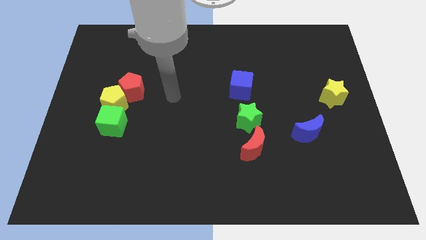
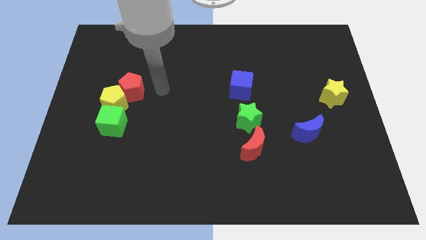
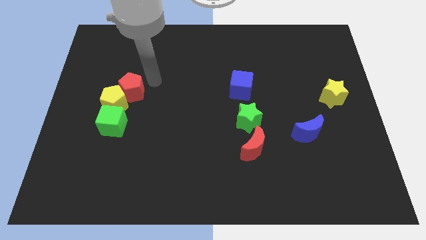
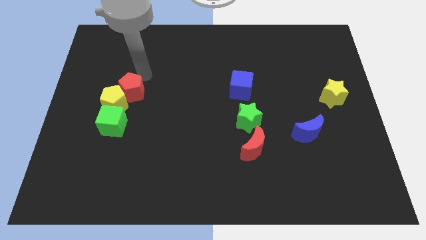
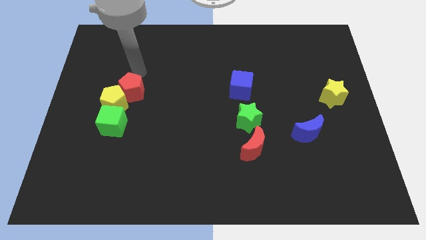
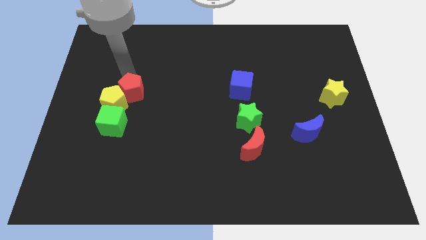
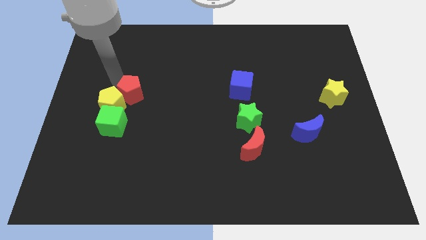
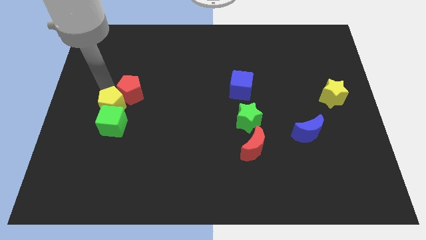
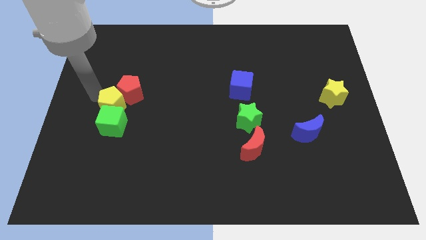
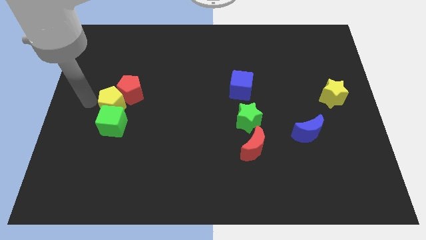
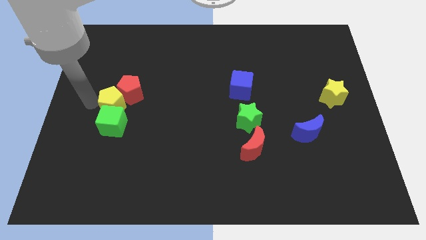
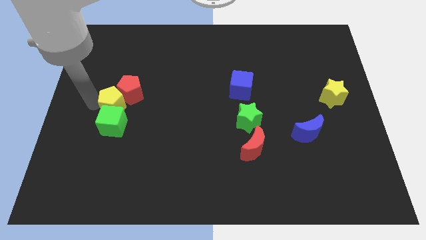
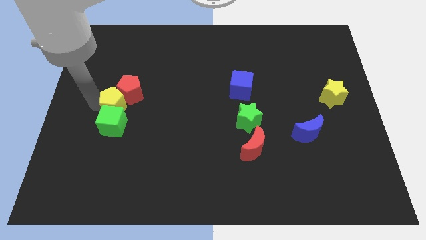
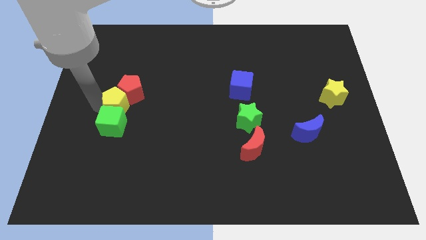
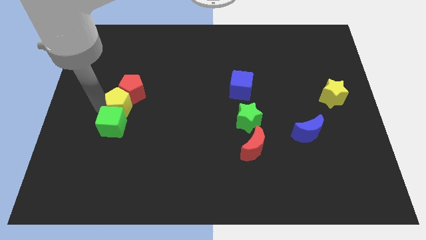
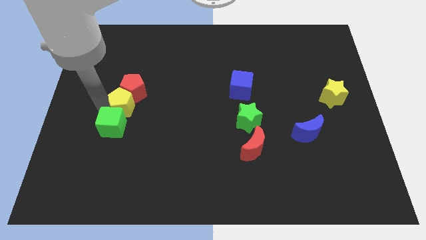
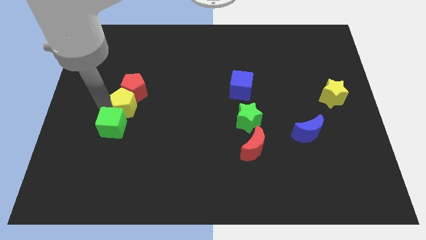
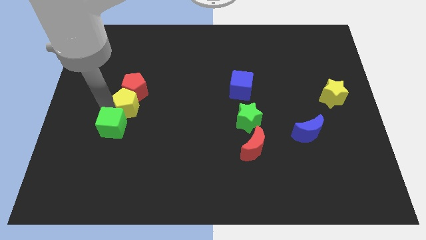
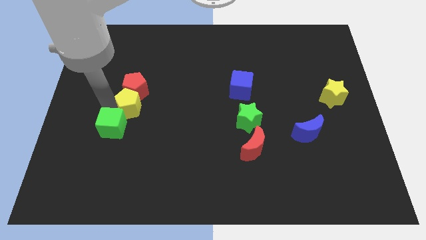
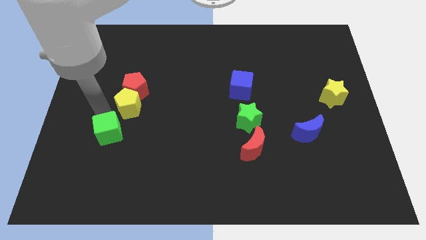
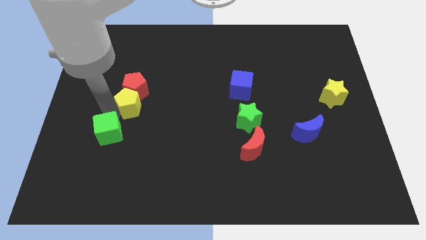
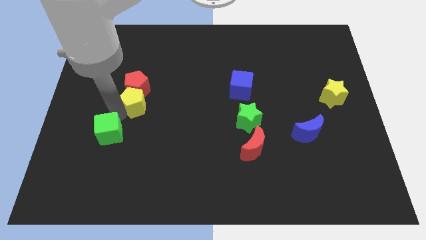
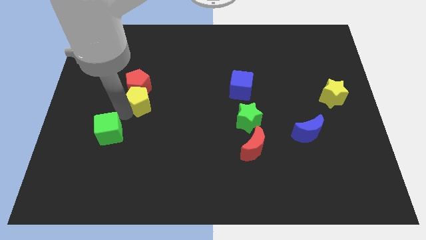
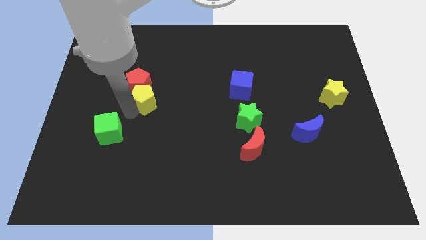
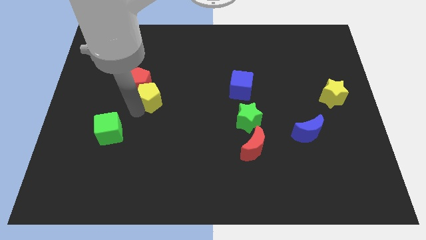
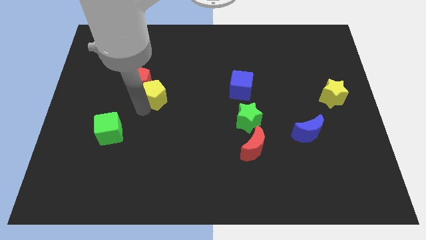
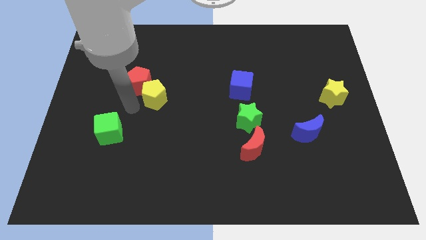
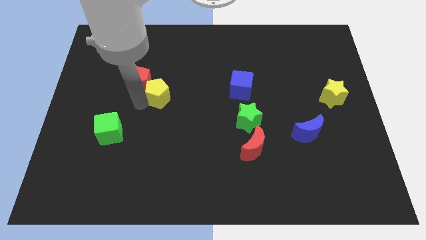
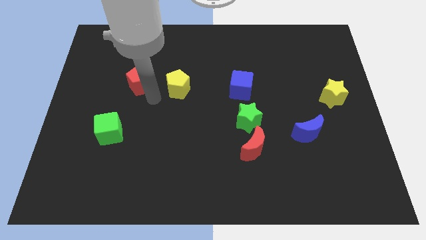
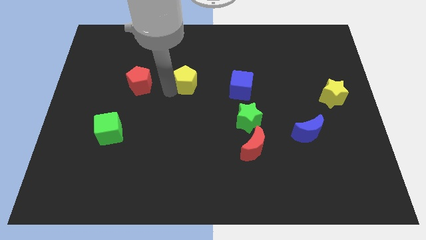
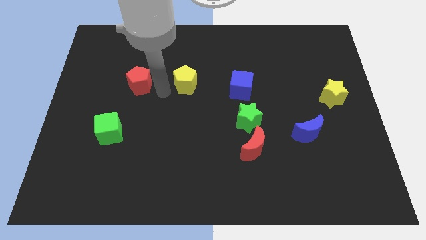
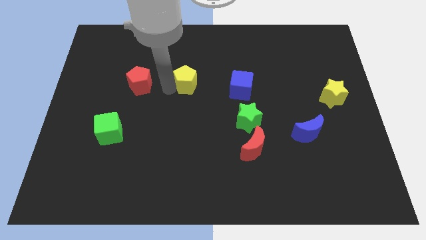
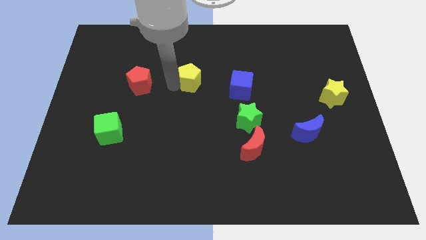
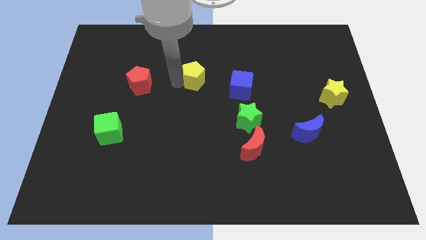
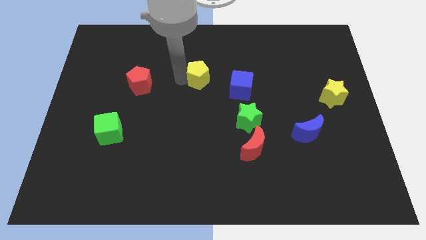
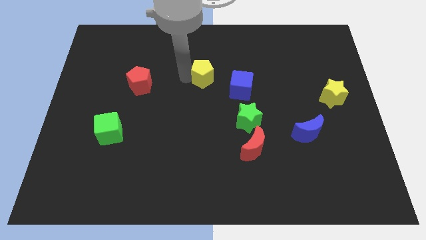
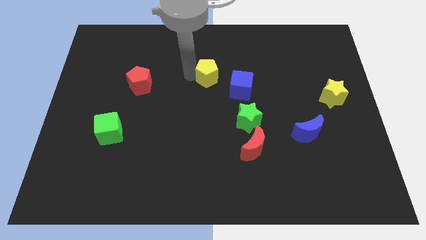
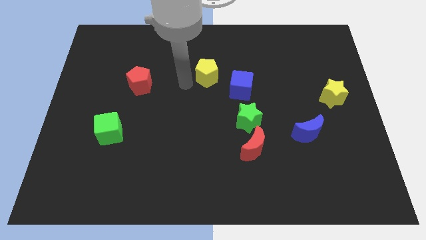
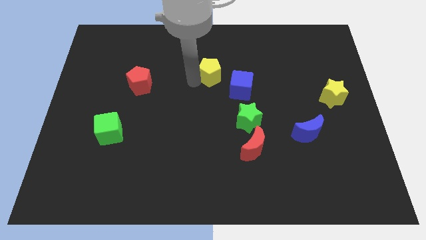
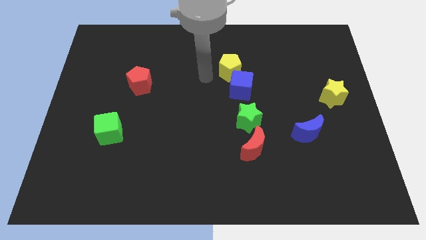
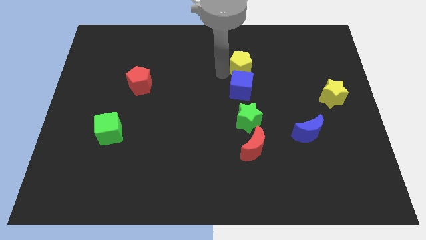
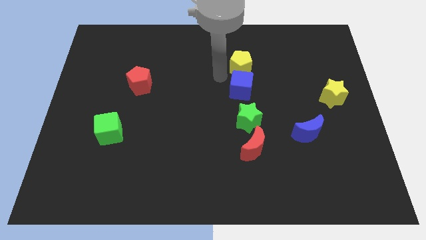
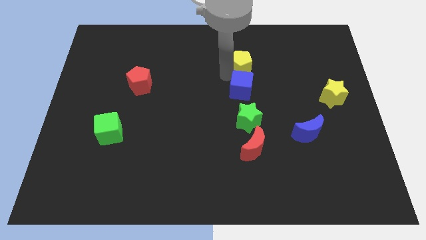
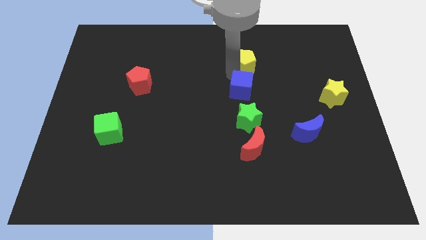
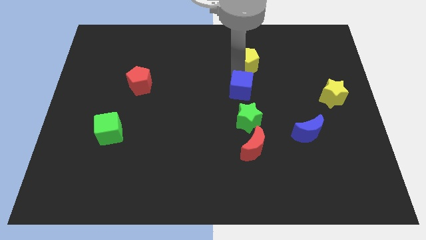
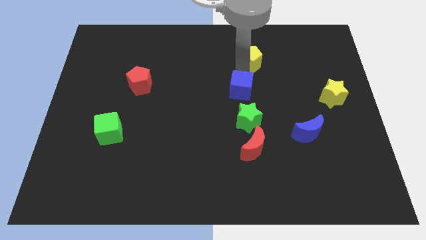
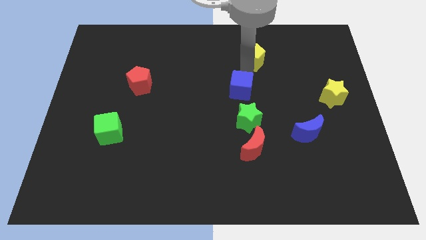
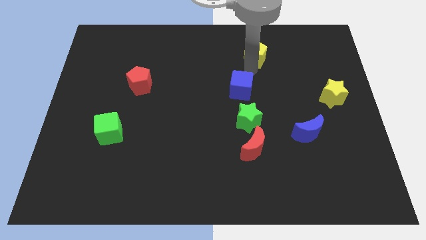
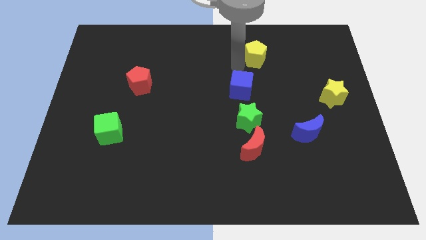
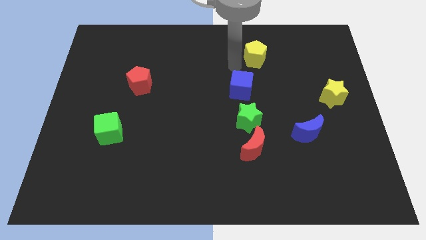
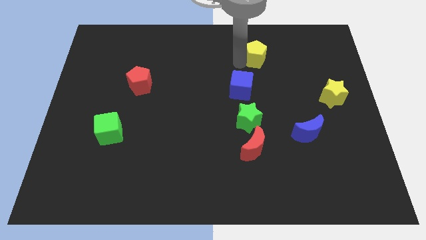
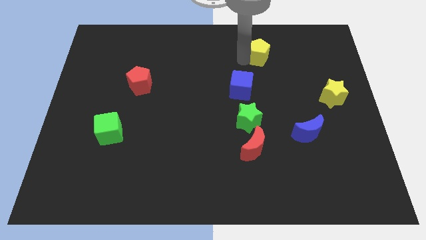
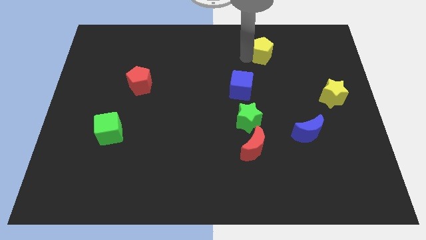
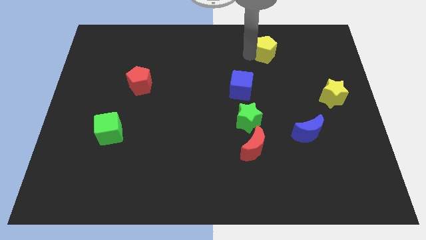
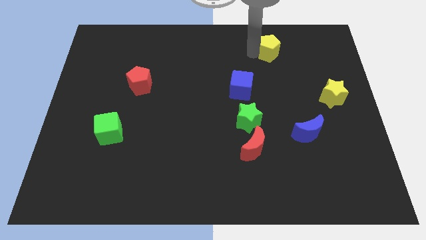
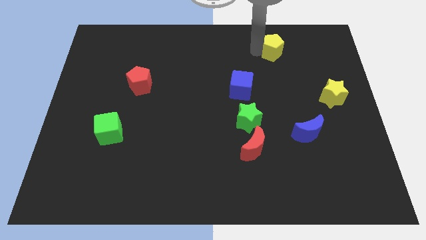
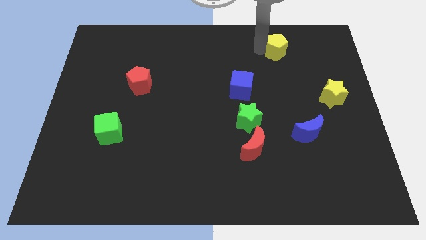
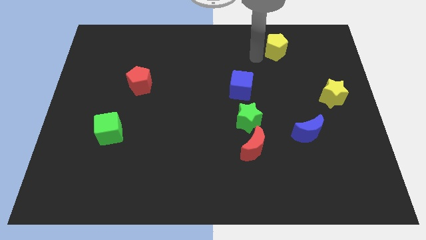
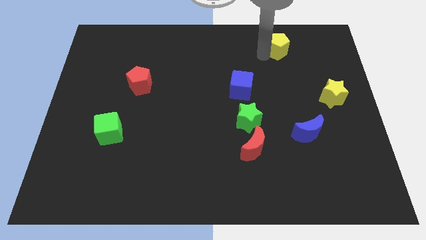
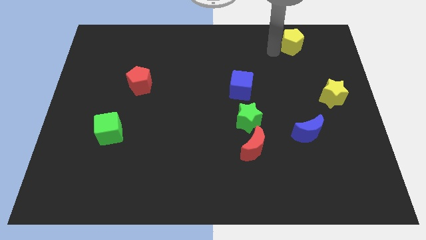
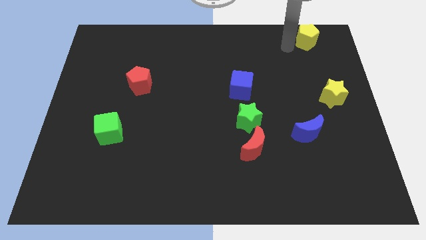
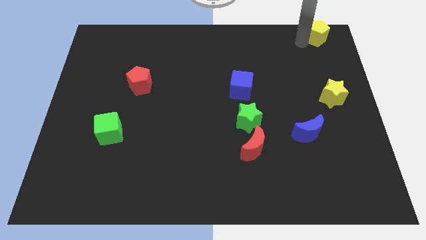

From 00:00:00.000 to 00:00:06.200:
push the yellow pentagon to the top right corner
